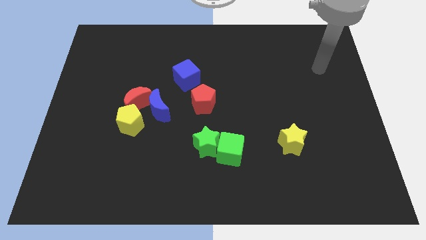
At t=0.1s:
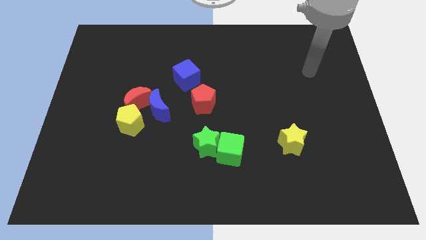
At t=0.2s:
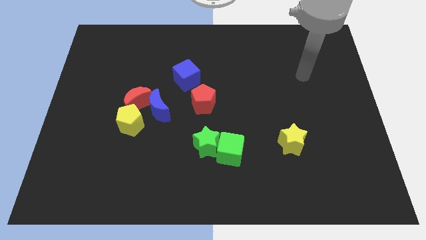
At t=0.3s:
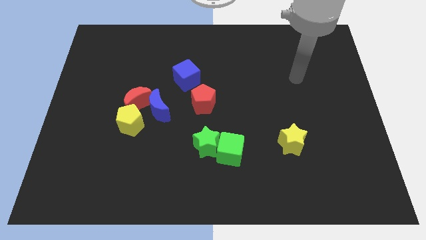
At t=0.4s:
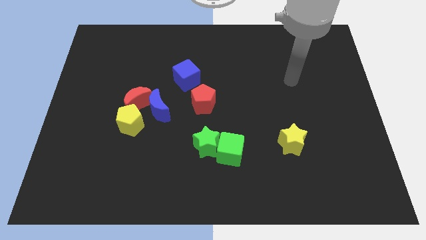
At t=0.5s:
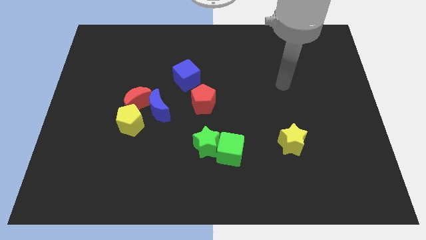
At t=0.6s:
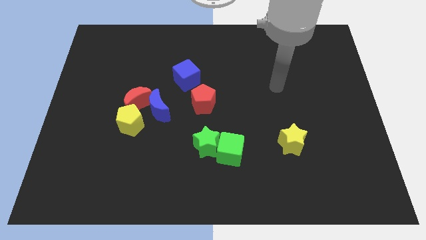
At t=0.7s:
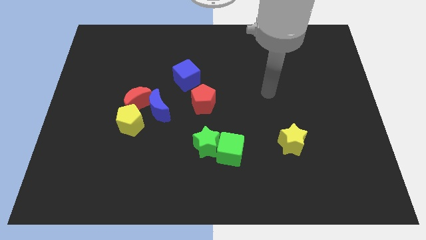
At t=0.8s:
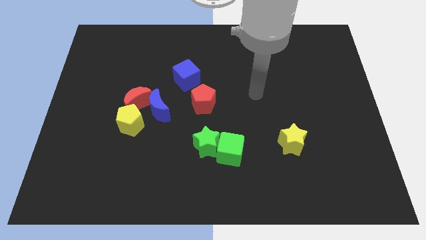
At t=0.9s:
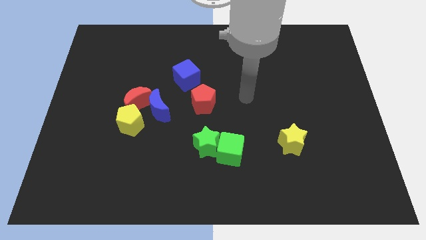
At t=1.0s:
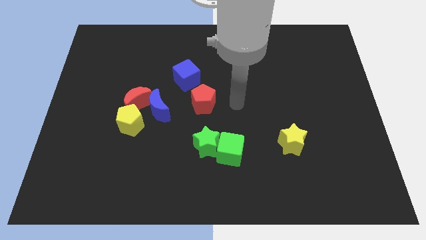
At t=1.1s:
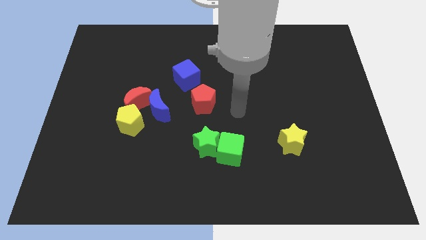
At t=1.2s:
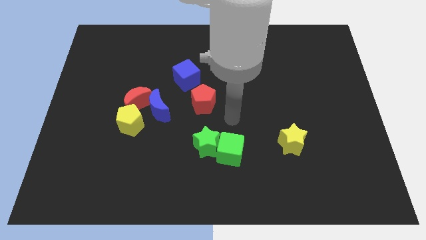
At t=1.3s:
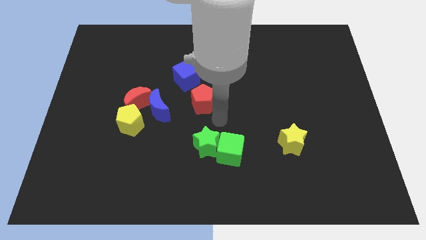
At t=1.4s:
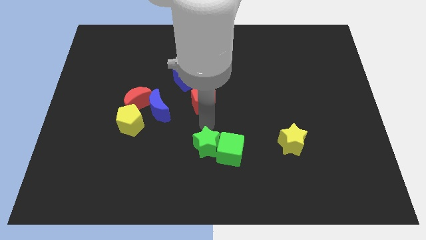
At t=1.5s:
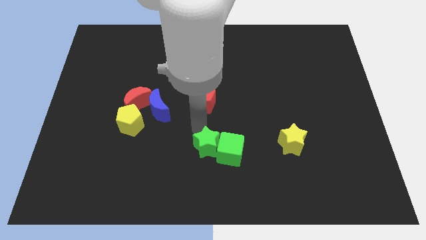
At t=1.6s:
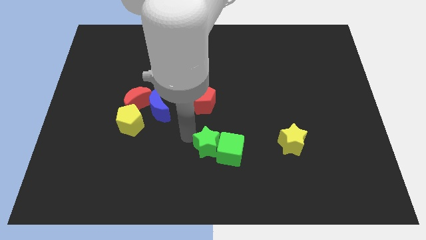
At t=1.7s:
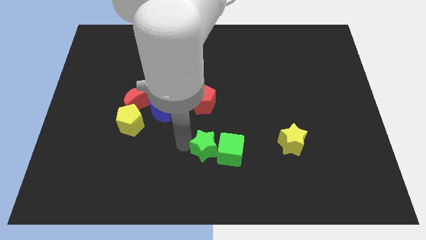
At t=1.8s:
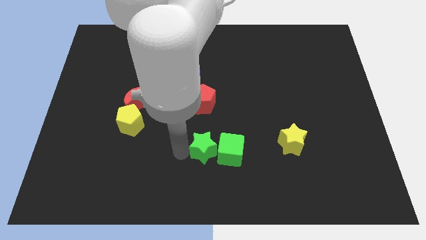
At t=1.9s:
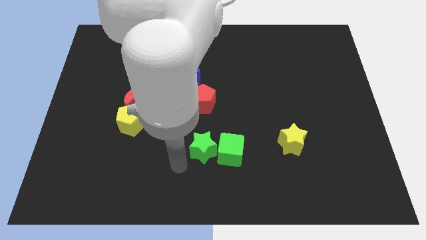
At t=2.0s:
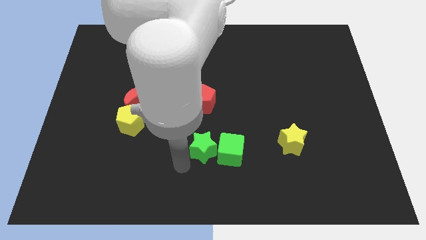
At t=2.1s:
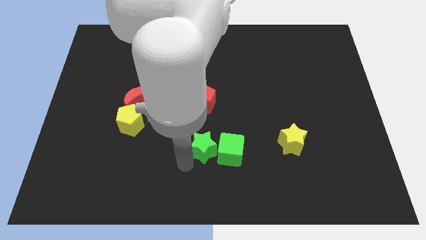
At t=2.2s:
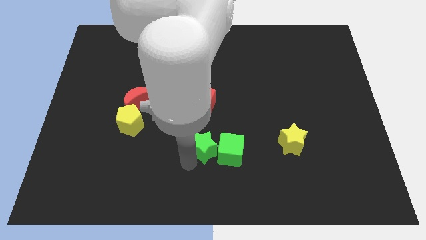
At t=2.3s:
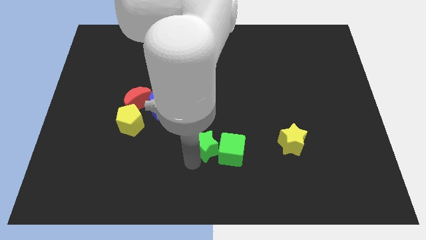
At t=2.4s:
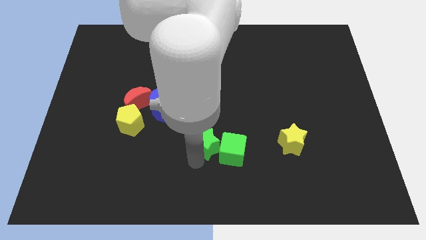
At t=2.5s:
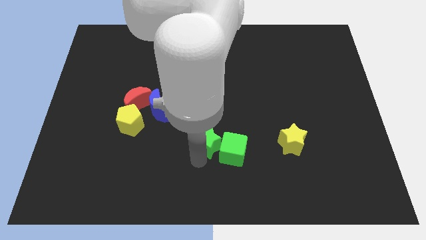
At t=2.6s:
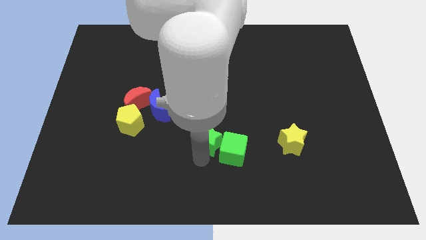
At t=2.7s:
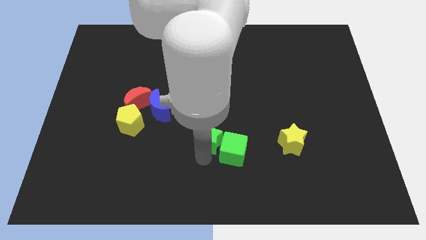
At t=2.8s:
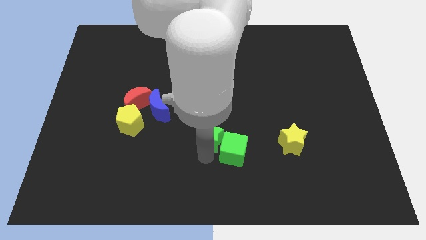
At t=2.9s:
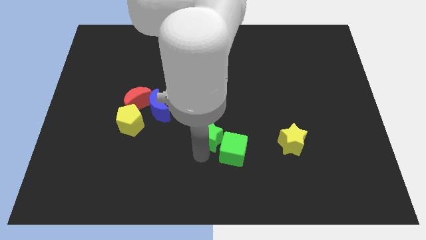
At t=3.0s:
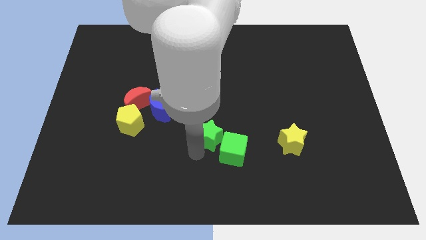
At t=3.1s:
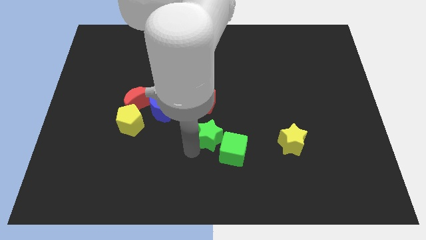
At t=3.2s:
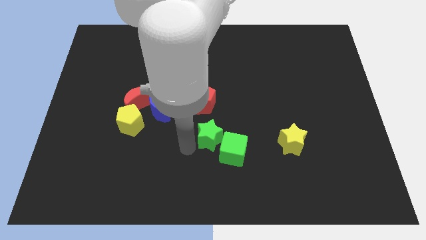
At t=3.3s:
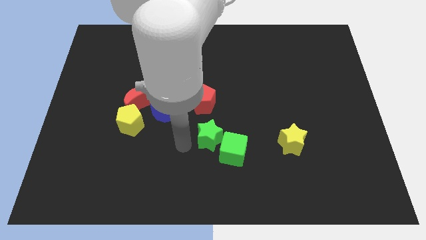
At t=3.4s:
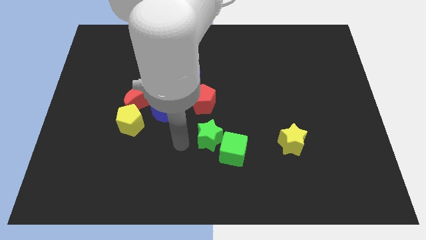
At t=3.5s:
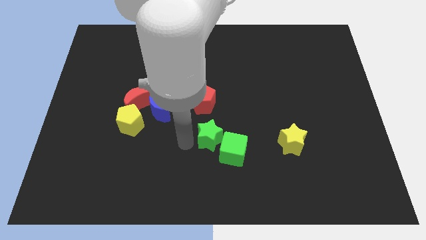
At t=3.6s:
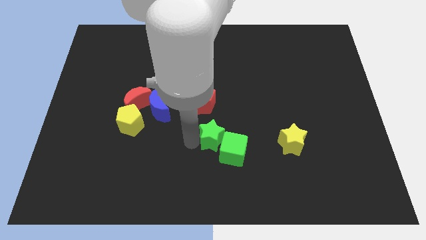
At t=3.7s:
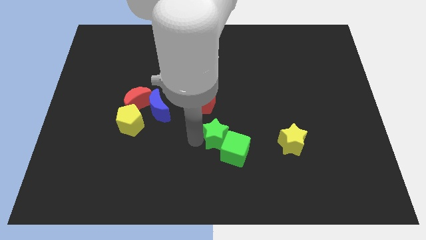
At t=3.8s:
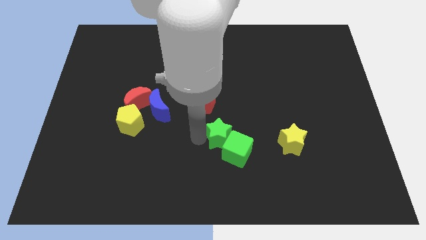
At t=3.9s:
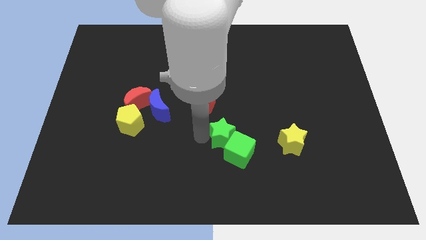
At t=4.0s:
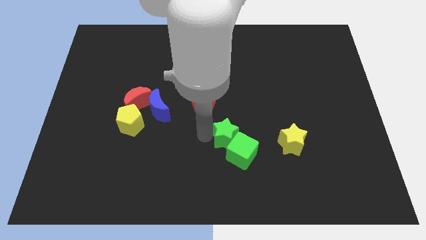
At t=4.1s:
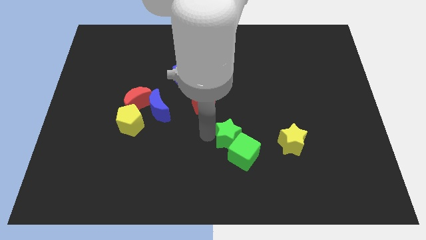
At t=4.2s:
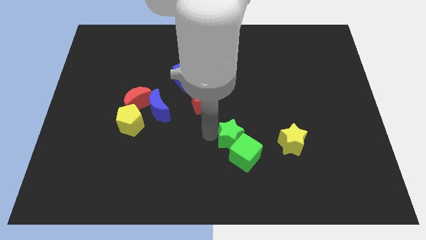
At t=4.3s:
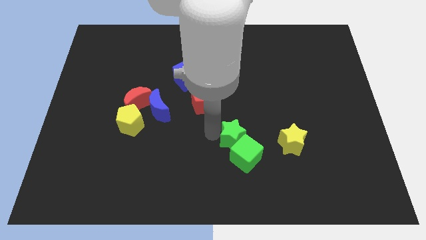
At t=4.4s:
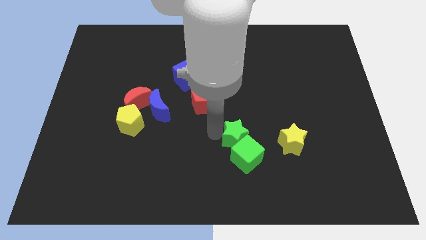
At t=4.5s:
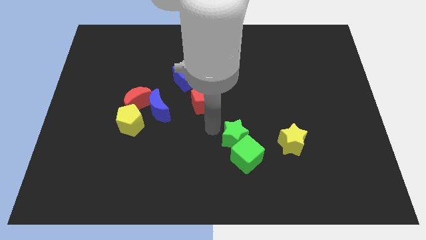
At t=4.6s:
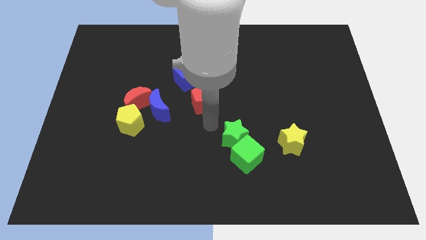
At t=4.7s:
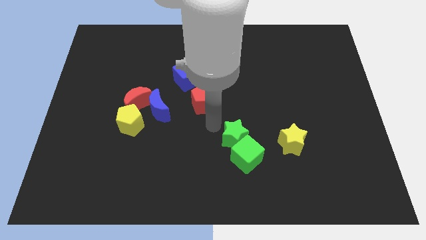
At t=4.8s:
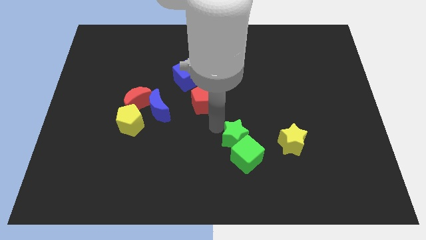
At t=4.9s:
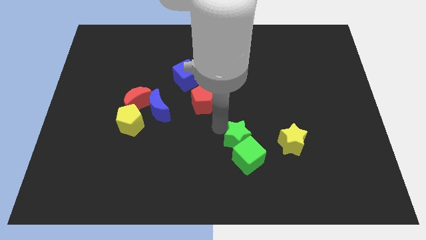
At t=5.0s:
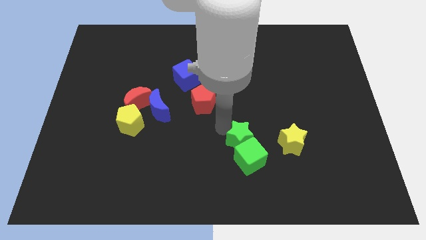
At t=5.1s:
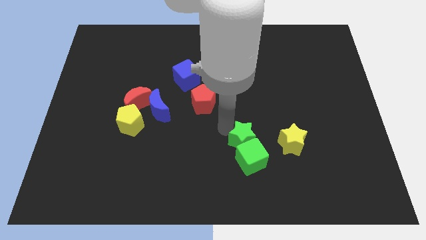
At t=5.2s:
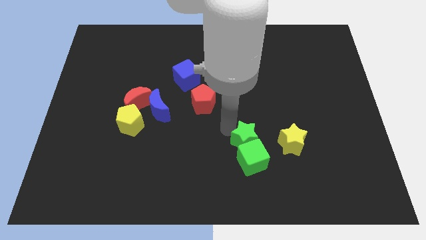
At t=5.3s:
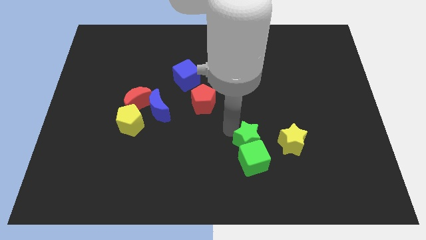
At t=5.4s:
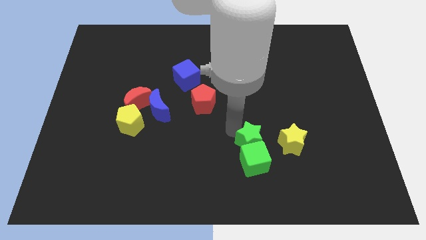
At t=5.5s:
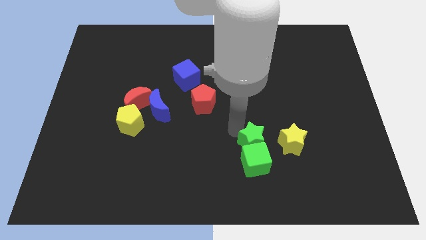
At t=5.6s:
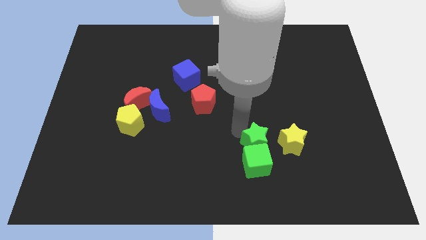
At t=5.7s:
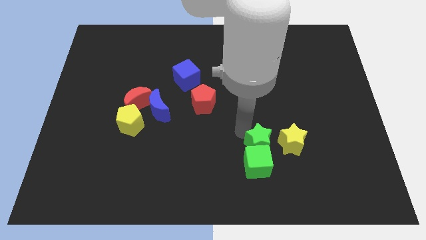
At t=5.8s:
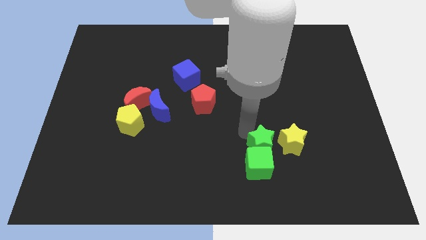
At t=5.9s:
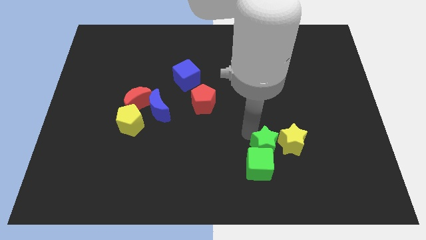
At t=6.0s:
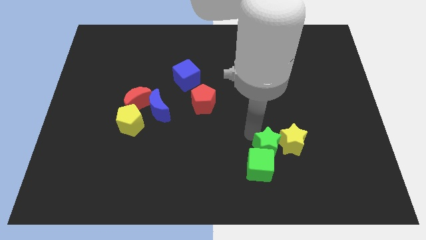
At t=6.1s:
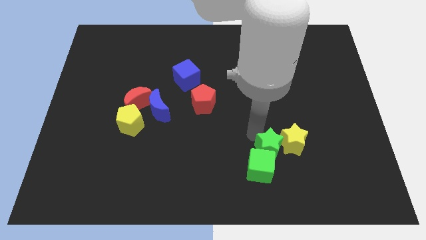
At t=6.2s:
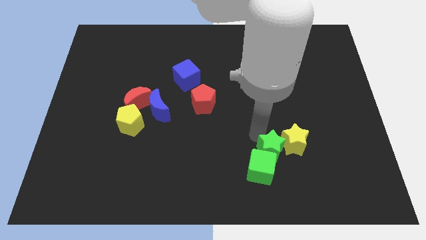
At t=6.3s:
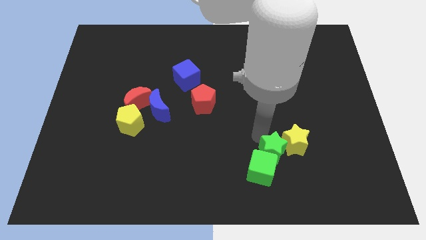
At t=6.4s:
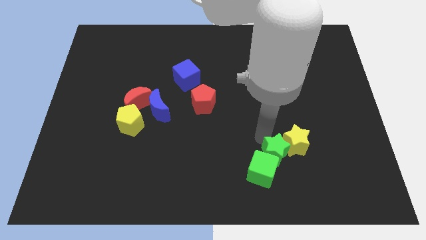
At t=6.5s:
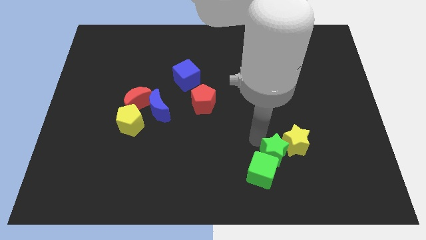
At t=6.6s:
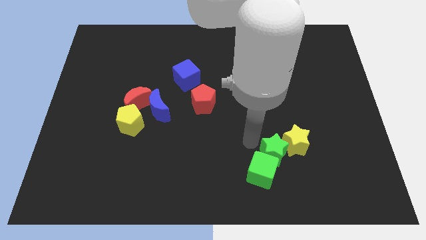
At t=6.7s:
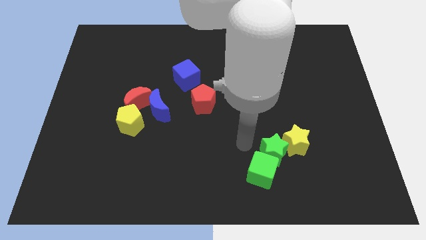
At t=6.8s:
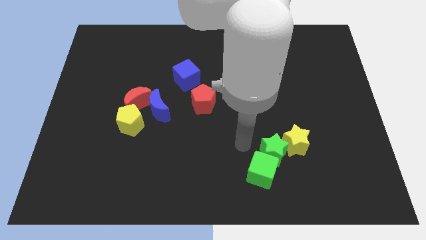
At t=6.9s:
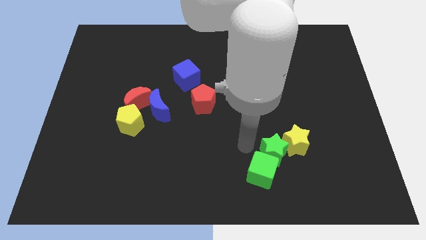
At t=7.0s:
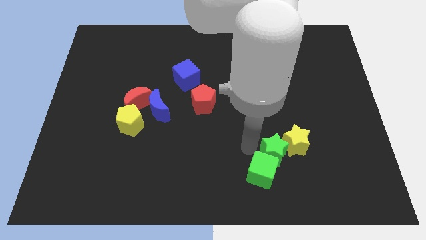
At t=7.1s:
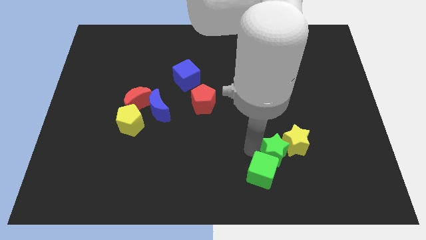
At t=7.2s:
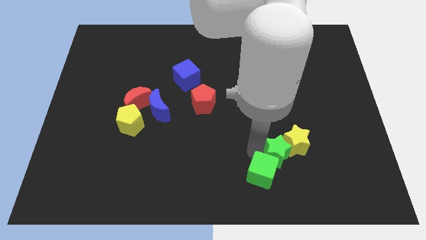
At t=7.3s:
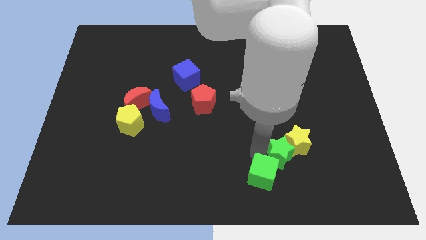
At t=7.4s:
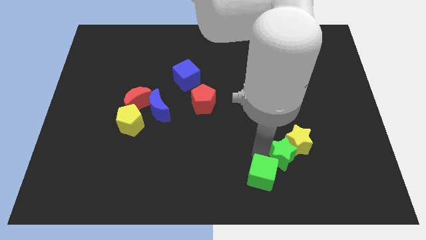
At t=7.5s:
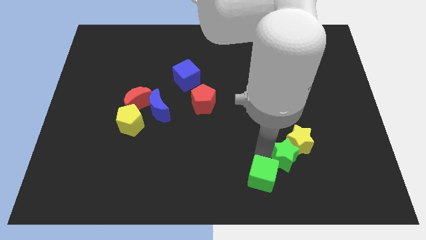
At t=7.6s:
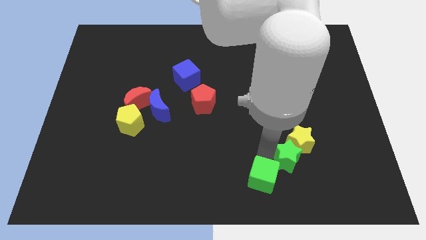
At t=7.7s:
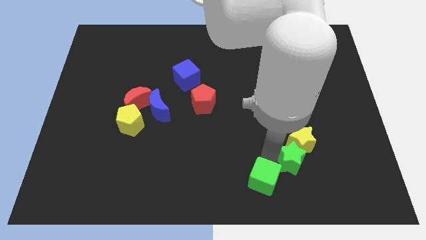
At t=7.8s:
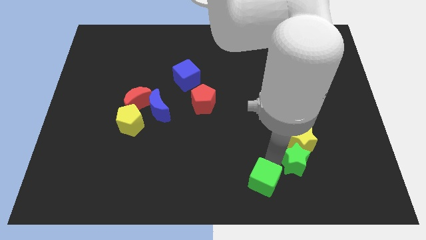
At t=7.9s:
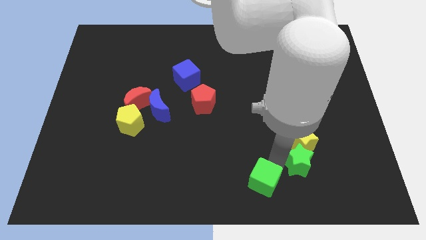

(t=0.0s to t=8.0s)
slide the green star diagonally down and to the right of the yellow star
